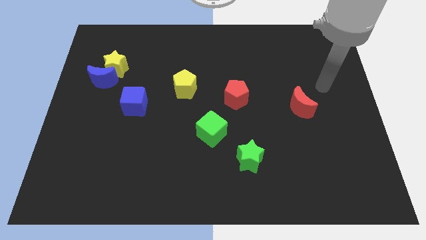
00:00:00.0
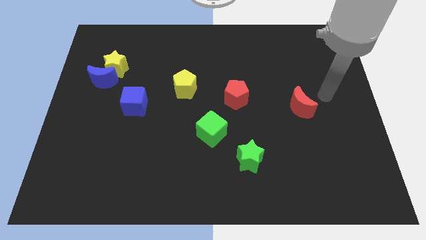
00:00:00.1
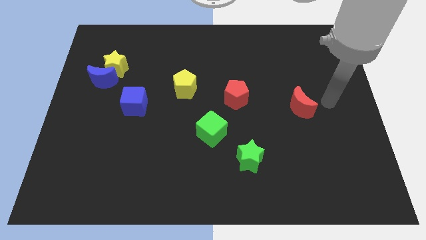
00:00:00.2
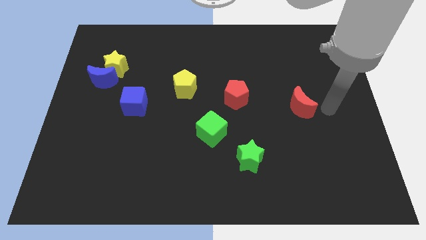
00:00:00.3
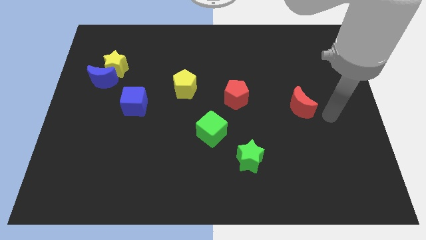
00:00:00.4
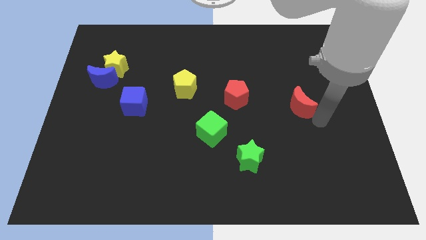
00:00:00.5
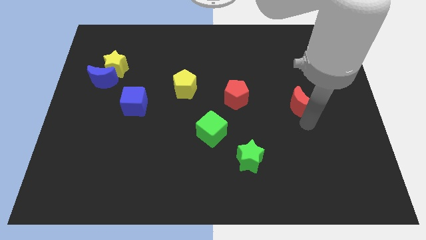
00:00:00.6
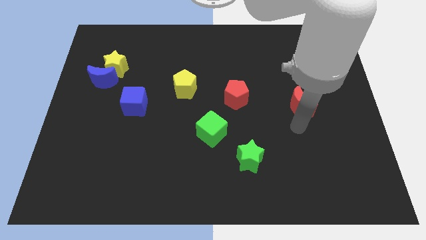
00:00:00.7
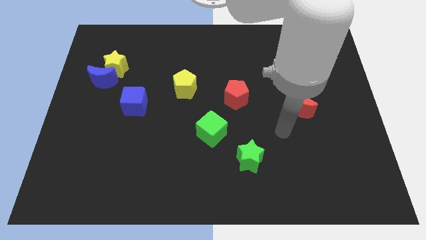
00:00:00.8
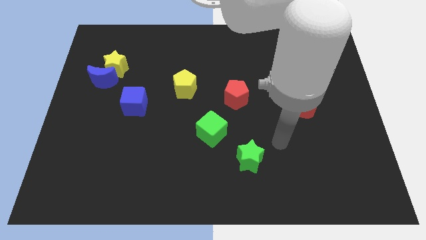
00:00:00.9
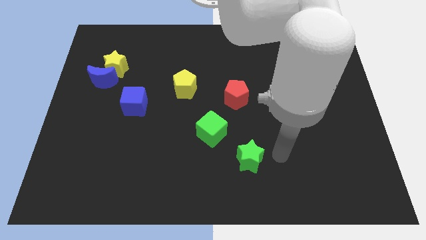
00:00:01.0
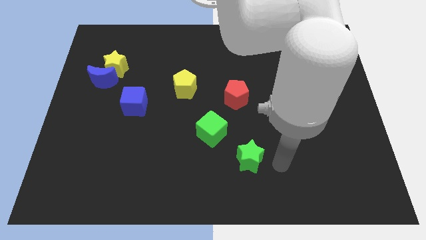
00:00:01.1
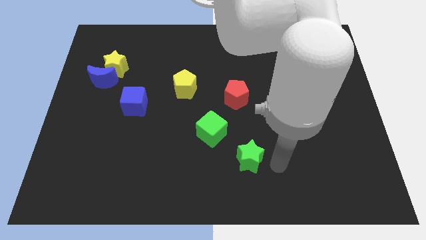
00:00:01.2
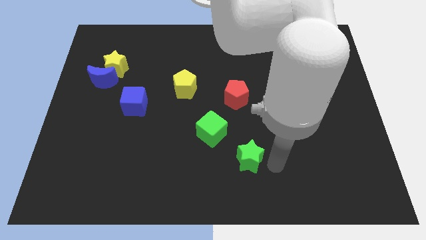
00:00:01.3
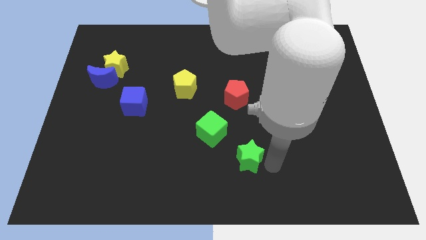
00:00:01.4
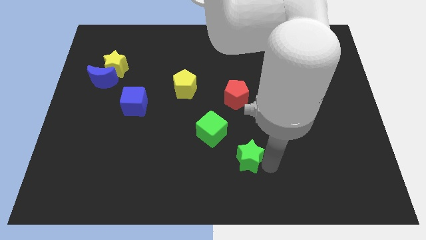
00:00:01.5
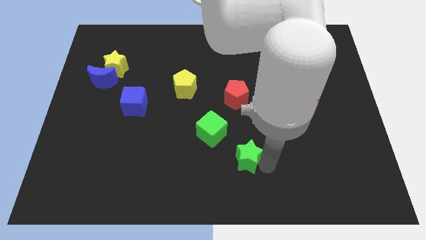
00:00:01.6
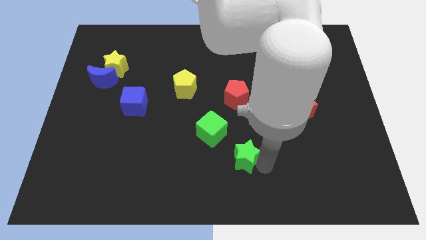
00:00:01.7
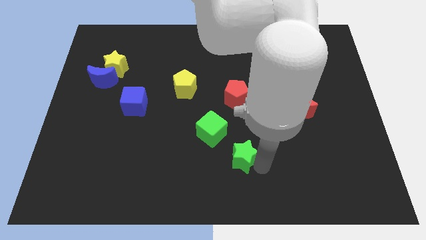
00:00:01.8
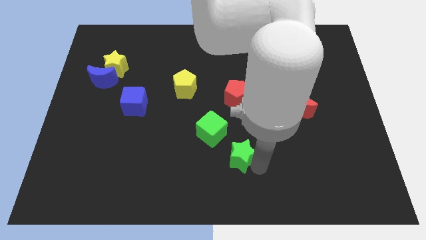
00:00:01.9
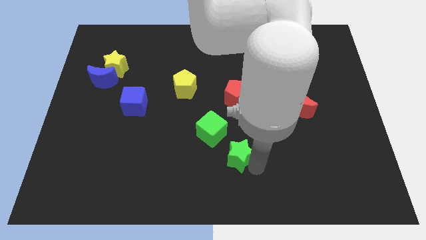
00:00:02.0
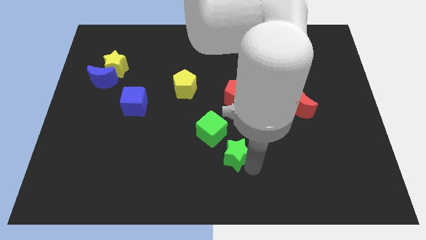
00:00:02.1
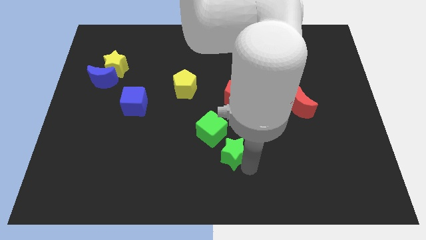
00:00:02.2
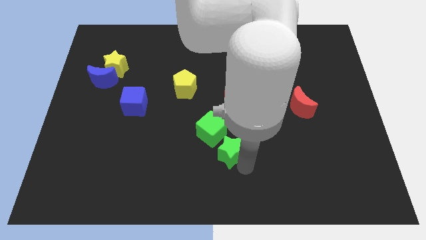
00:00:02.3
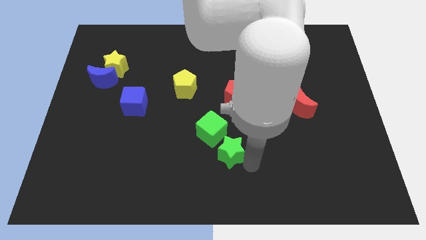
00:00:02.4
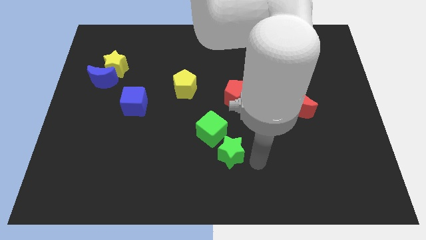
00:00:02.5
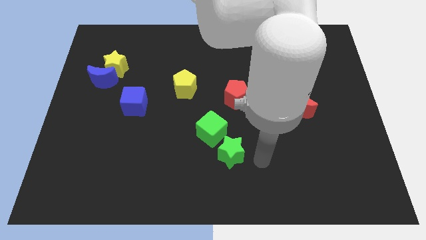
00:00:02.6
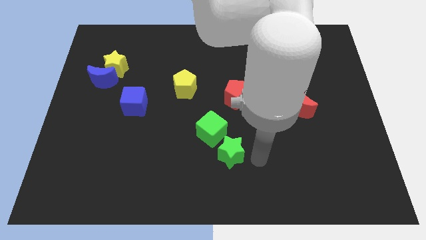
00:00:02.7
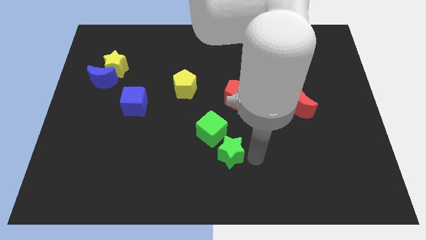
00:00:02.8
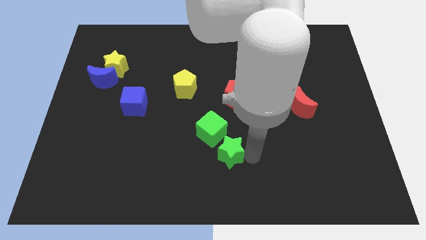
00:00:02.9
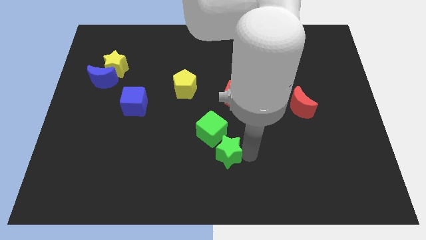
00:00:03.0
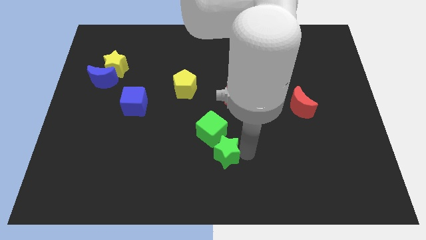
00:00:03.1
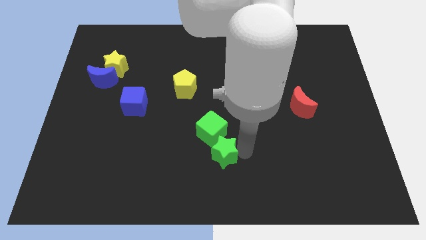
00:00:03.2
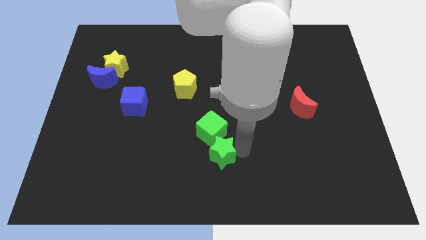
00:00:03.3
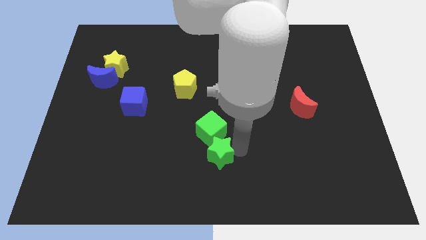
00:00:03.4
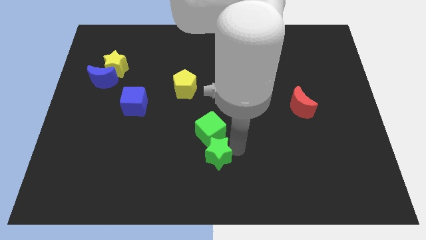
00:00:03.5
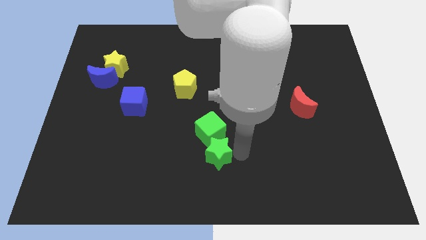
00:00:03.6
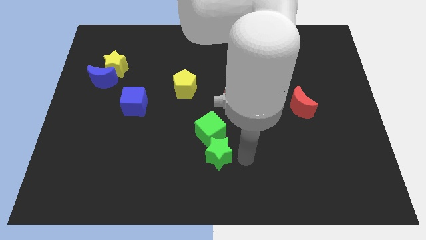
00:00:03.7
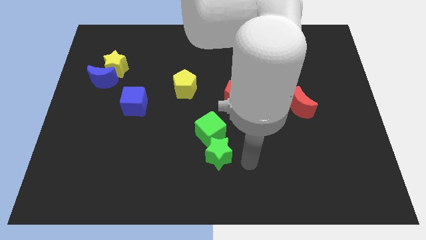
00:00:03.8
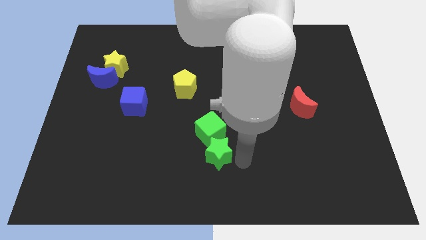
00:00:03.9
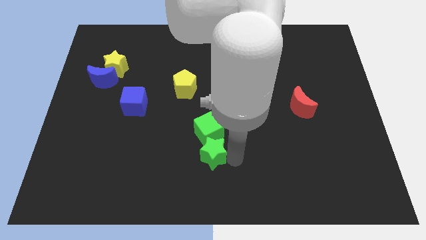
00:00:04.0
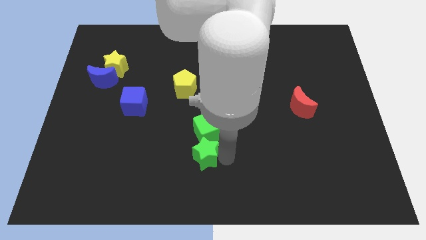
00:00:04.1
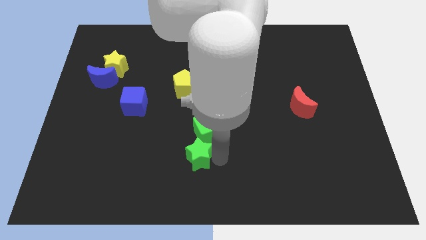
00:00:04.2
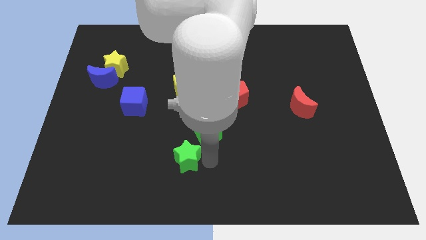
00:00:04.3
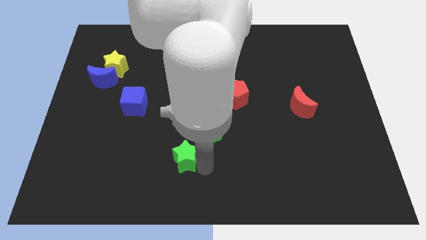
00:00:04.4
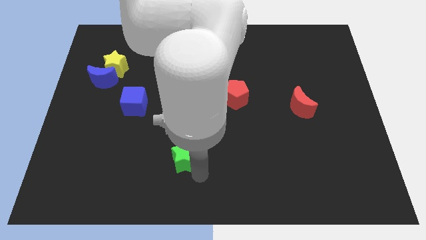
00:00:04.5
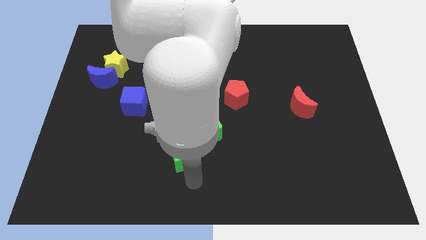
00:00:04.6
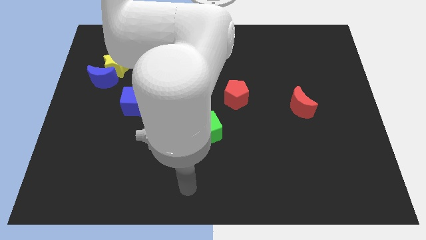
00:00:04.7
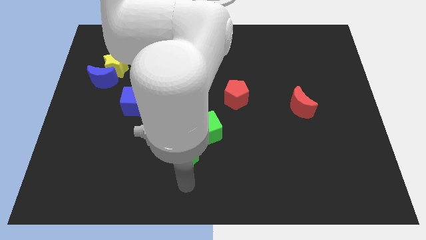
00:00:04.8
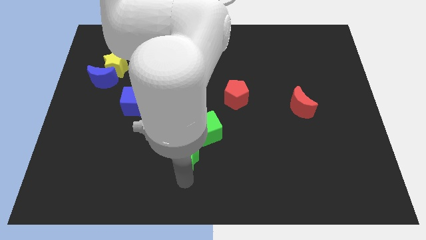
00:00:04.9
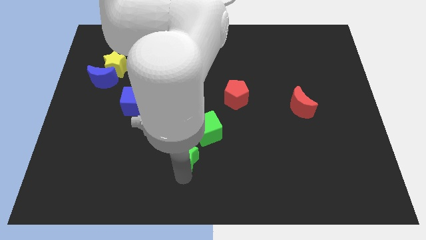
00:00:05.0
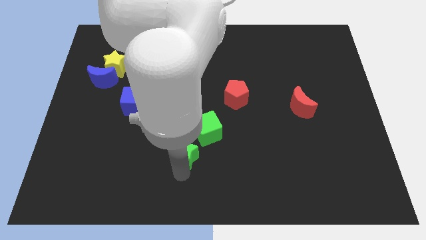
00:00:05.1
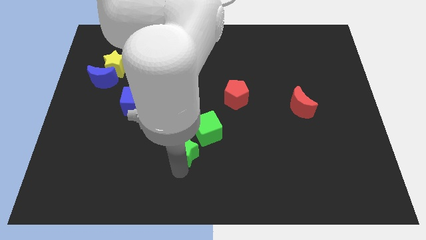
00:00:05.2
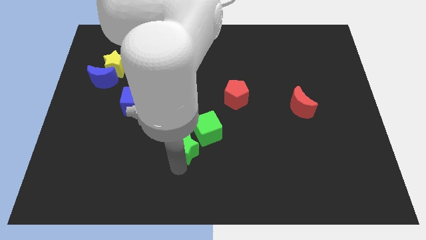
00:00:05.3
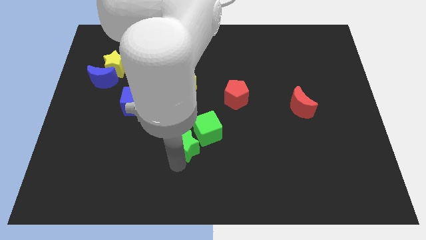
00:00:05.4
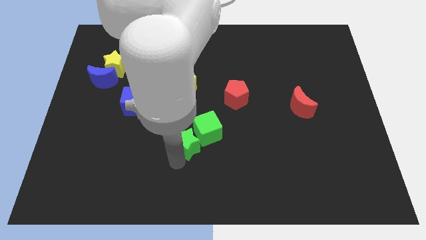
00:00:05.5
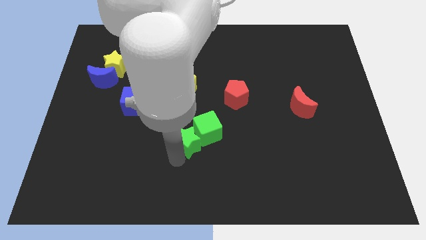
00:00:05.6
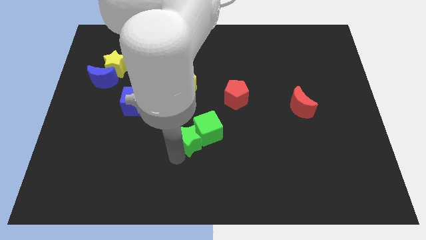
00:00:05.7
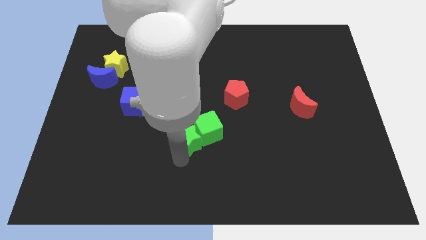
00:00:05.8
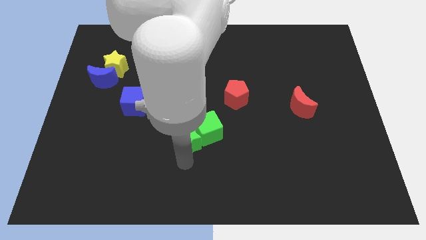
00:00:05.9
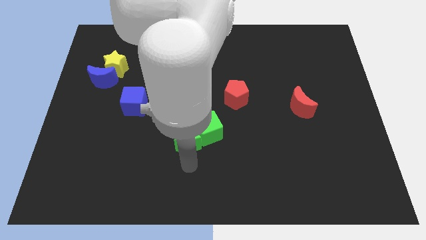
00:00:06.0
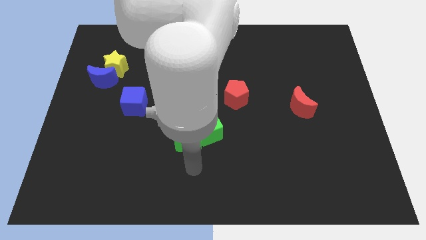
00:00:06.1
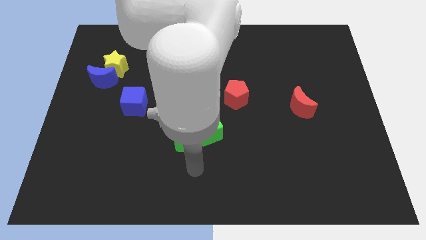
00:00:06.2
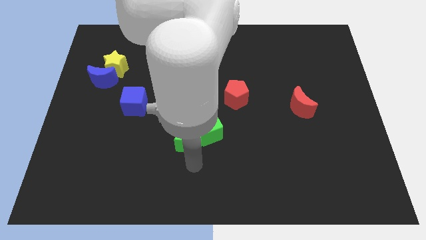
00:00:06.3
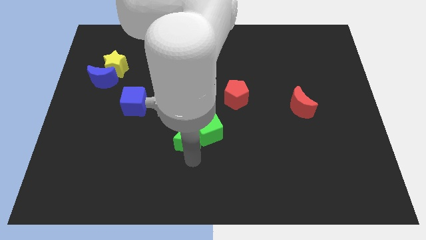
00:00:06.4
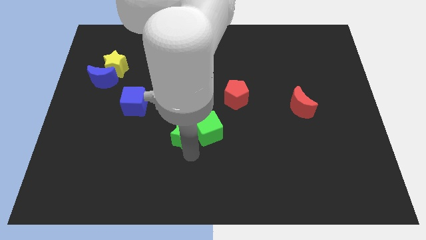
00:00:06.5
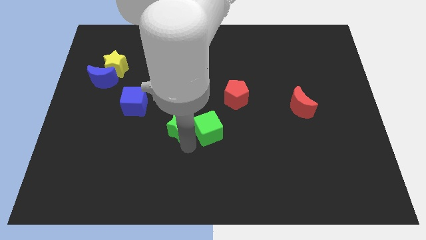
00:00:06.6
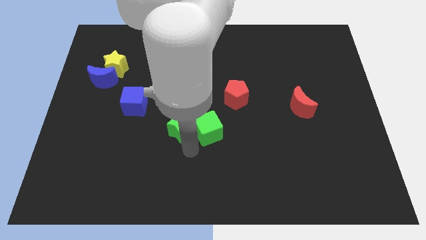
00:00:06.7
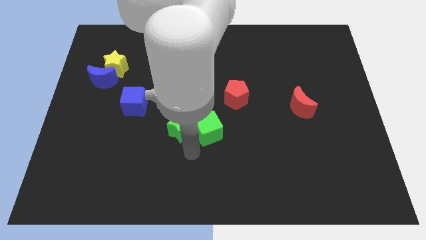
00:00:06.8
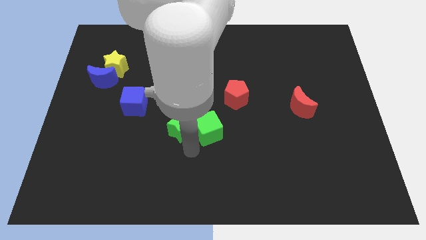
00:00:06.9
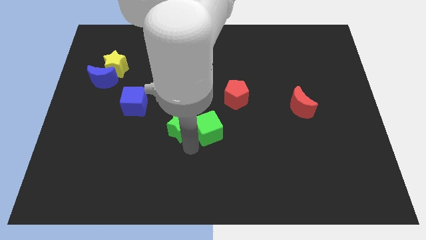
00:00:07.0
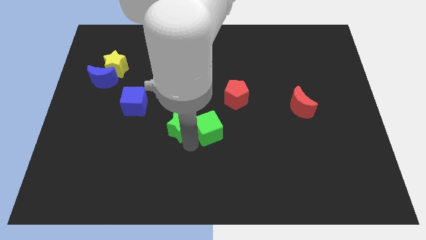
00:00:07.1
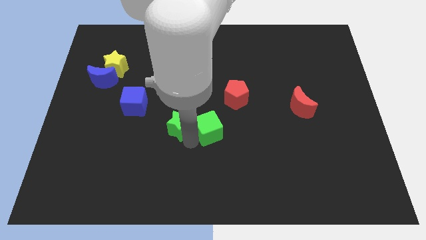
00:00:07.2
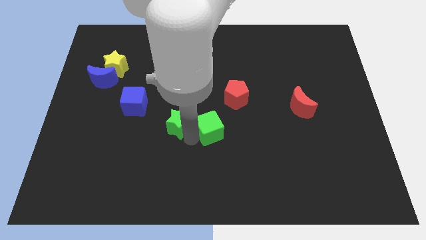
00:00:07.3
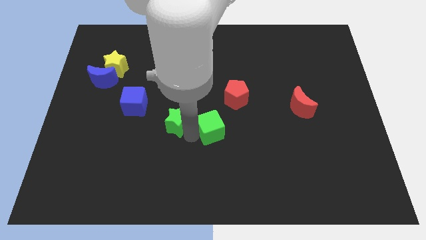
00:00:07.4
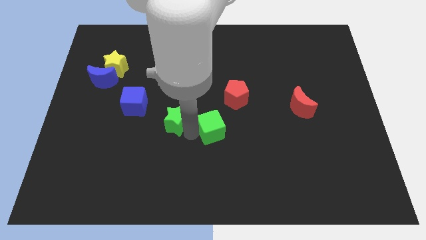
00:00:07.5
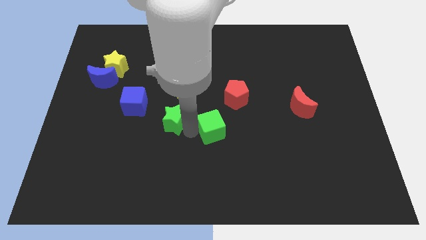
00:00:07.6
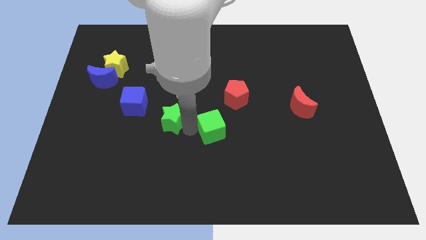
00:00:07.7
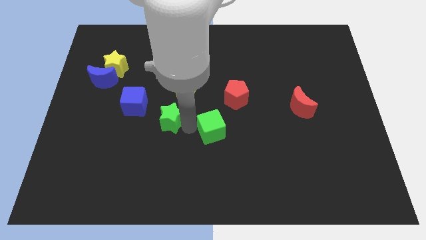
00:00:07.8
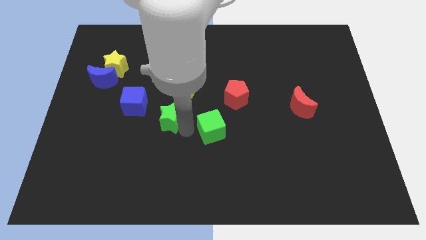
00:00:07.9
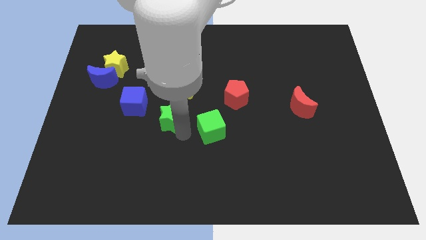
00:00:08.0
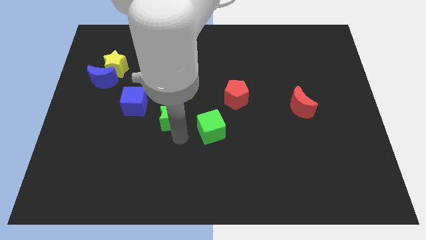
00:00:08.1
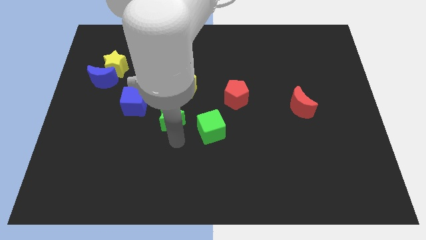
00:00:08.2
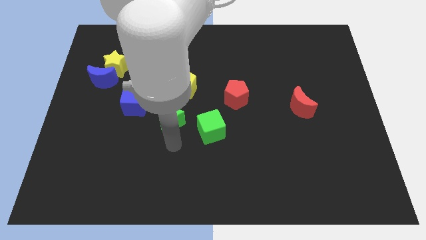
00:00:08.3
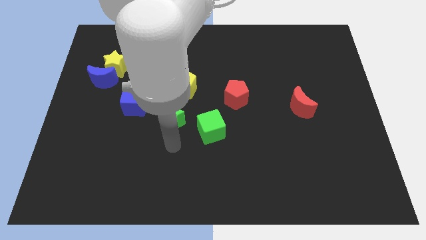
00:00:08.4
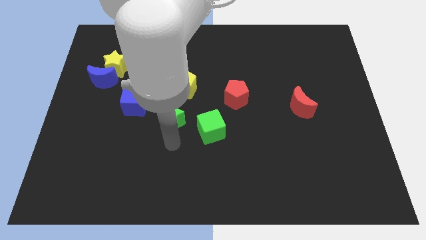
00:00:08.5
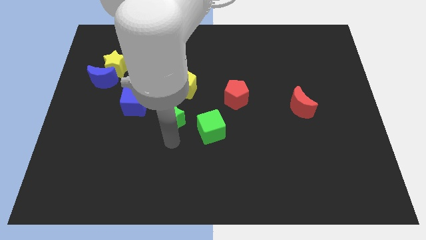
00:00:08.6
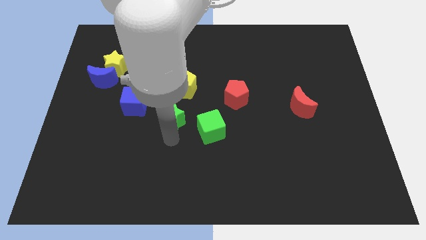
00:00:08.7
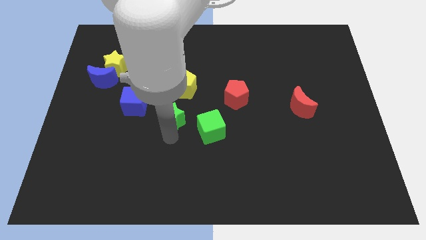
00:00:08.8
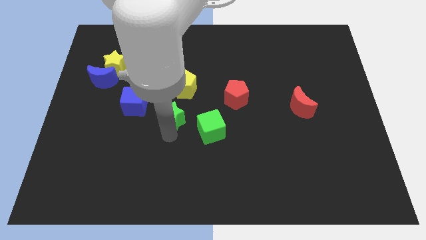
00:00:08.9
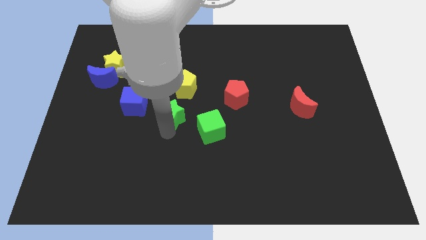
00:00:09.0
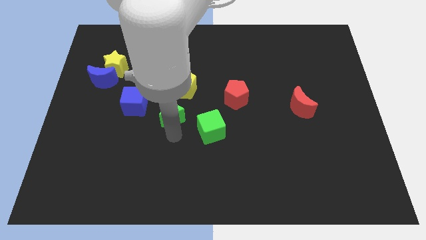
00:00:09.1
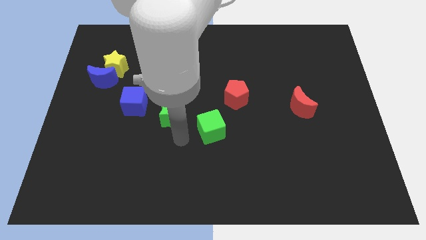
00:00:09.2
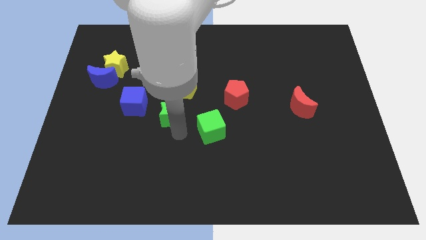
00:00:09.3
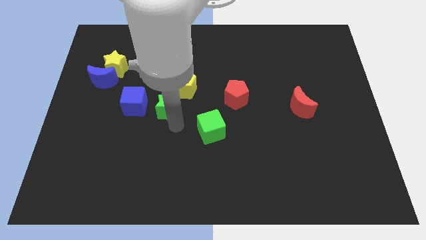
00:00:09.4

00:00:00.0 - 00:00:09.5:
move the green star diagonally up and to the left
